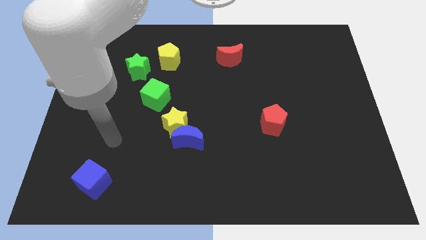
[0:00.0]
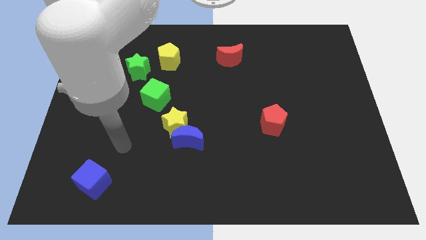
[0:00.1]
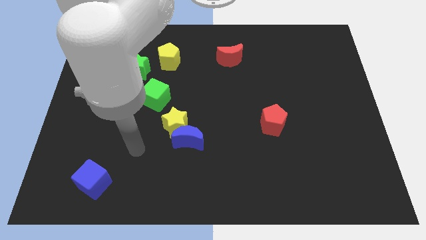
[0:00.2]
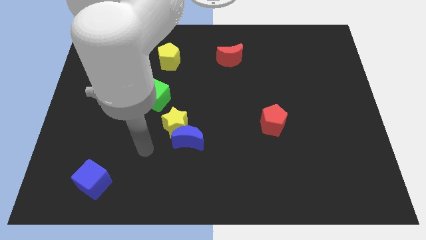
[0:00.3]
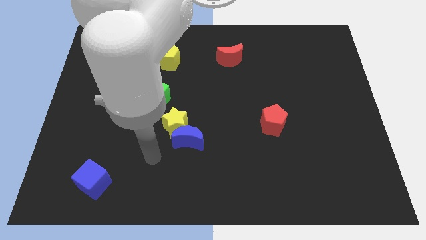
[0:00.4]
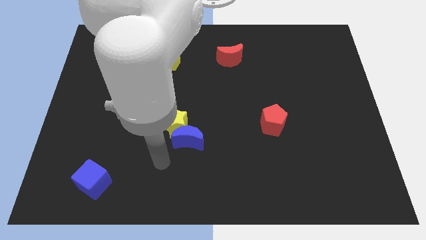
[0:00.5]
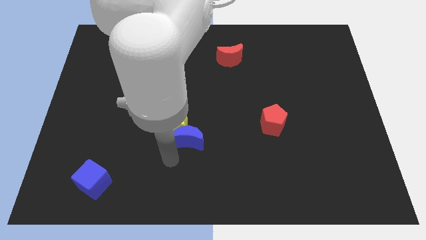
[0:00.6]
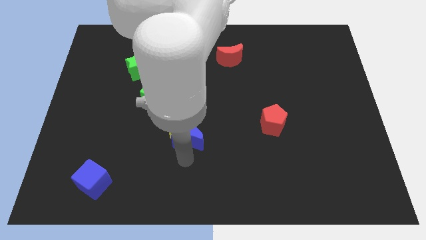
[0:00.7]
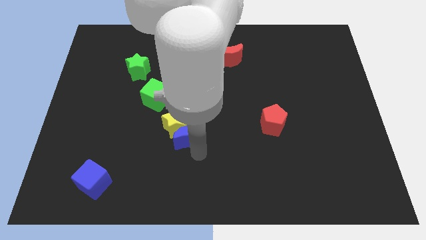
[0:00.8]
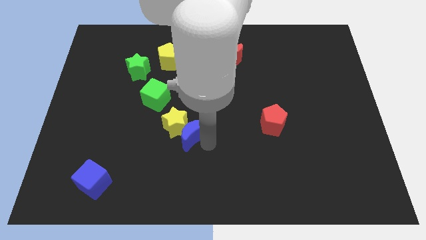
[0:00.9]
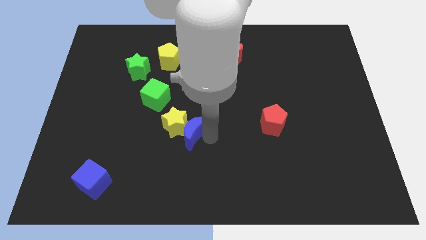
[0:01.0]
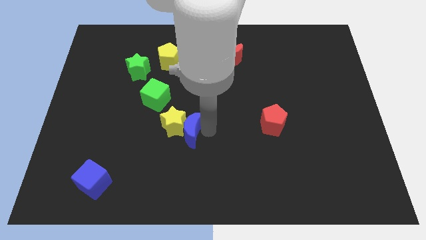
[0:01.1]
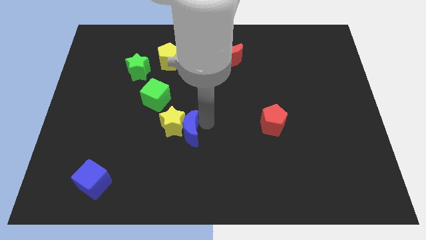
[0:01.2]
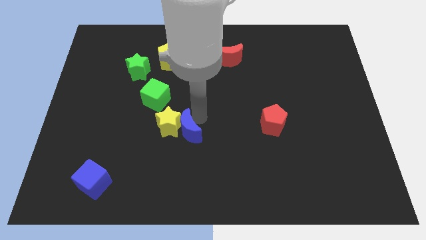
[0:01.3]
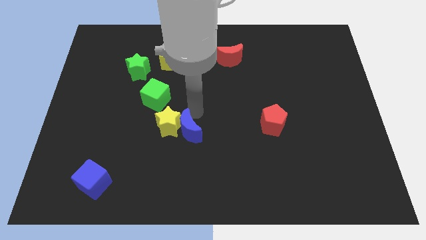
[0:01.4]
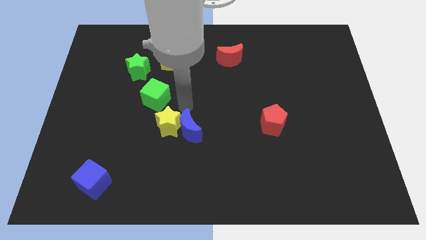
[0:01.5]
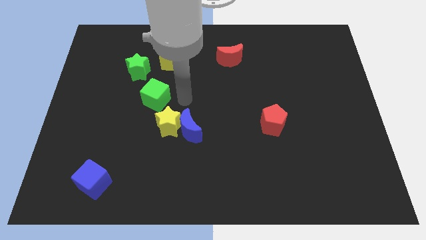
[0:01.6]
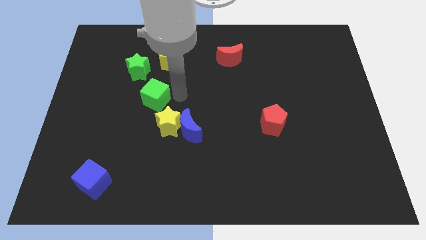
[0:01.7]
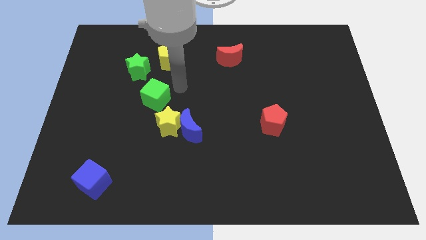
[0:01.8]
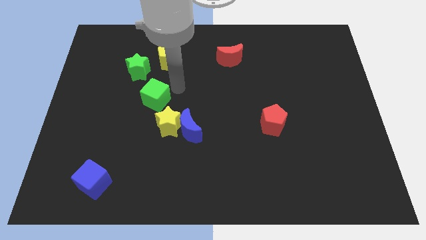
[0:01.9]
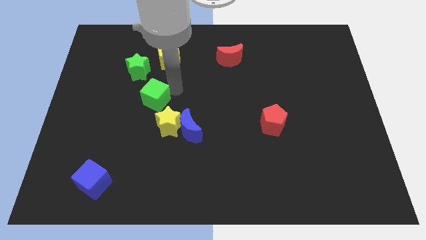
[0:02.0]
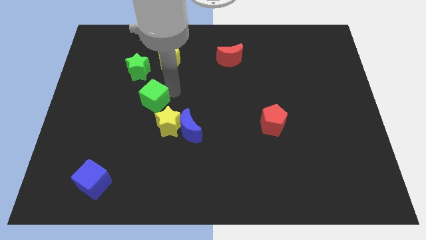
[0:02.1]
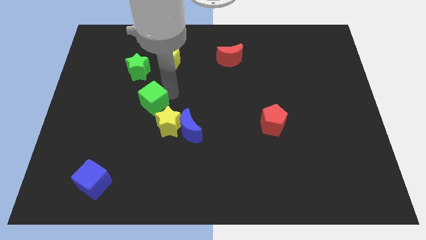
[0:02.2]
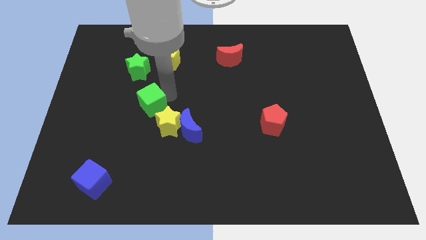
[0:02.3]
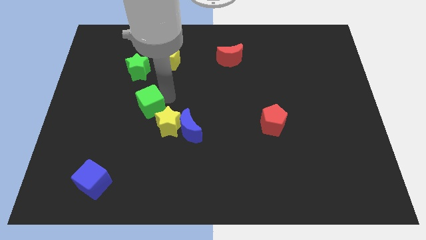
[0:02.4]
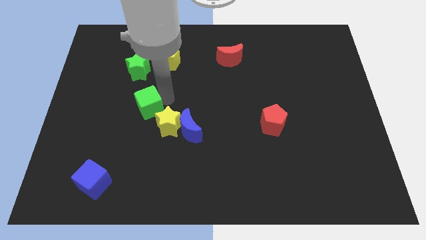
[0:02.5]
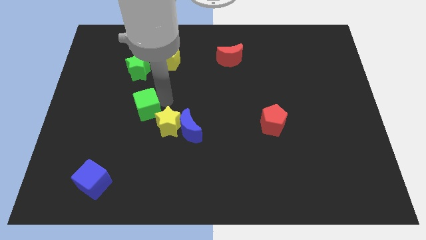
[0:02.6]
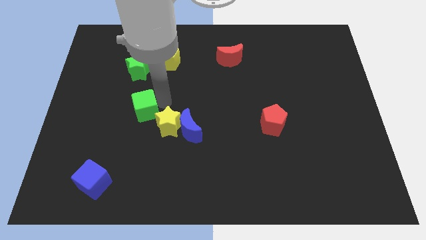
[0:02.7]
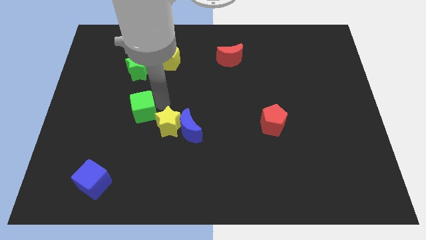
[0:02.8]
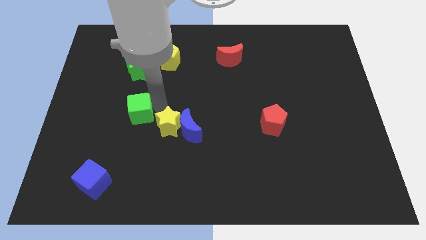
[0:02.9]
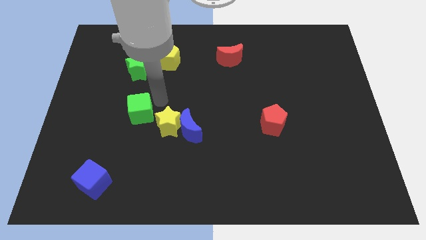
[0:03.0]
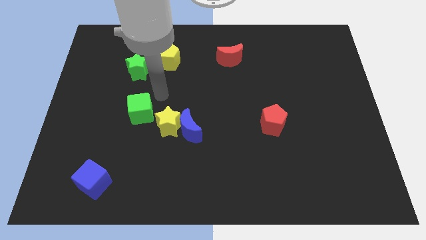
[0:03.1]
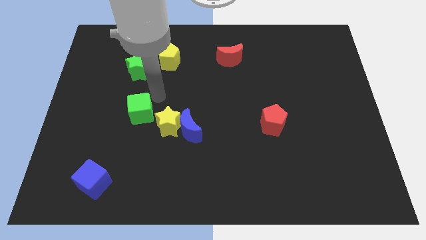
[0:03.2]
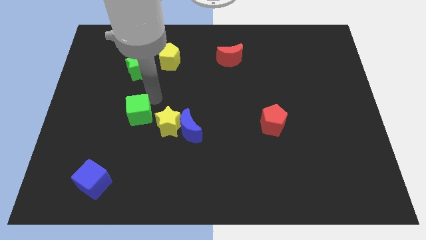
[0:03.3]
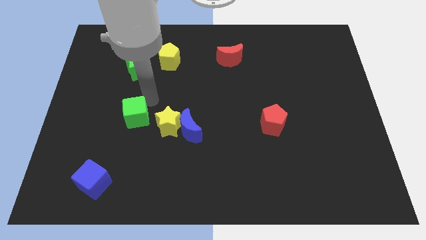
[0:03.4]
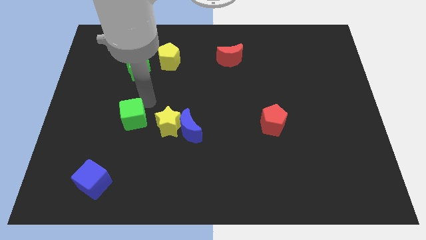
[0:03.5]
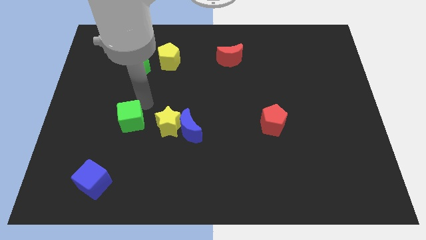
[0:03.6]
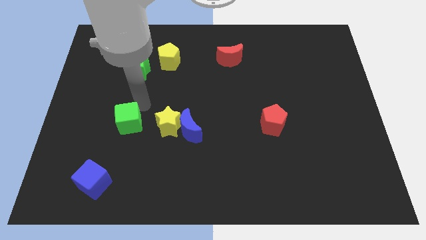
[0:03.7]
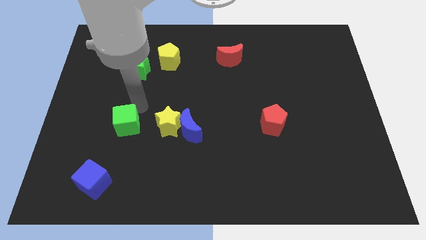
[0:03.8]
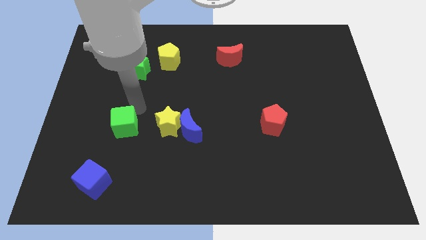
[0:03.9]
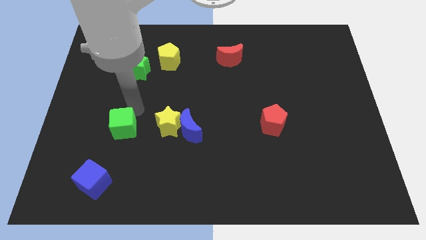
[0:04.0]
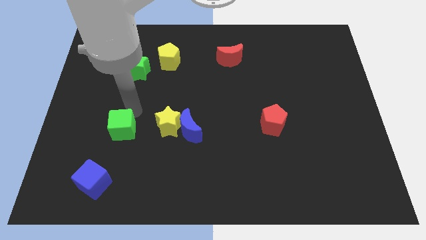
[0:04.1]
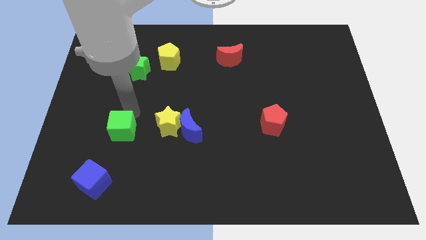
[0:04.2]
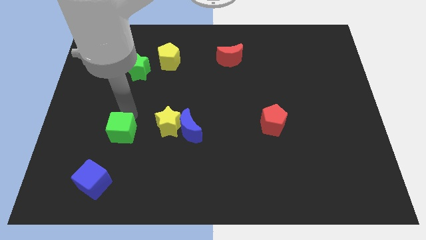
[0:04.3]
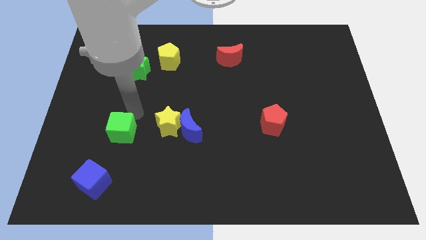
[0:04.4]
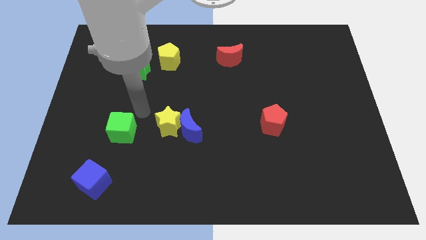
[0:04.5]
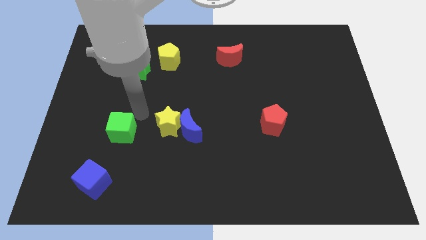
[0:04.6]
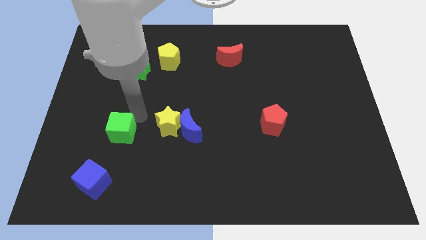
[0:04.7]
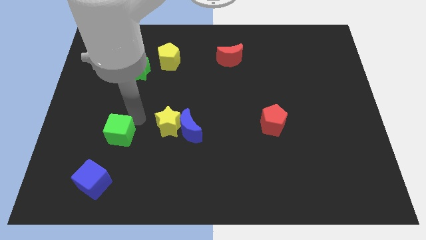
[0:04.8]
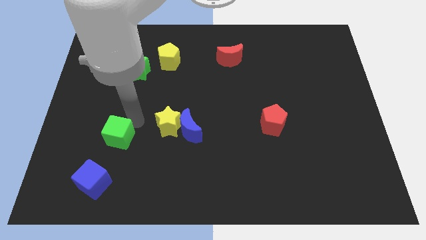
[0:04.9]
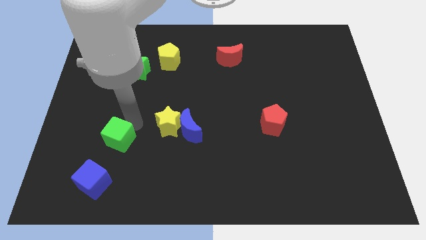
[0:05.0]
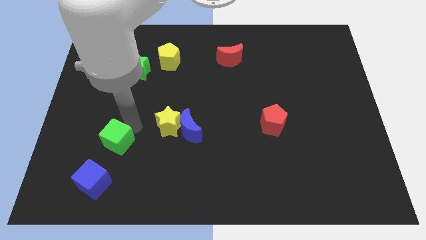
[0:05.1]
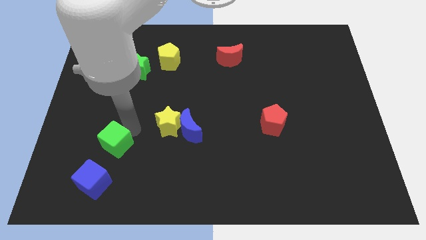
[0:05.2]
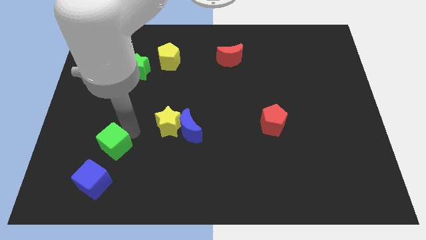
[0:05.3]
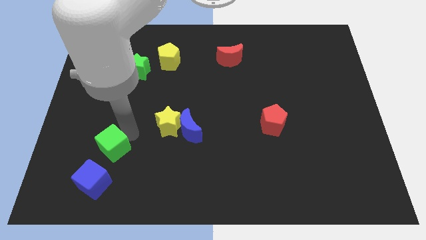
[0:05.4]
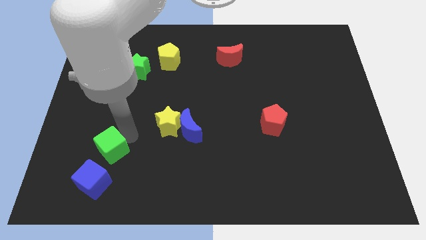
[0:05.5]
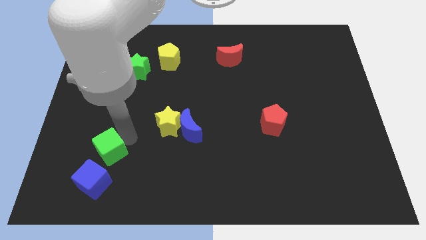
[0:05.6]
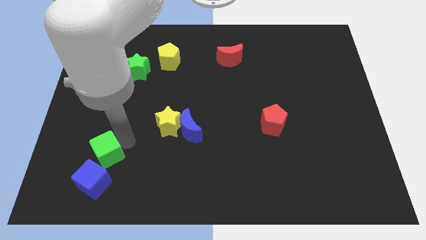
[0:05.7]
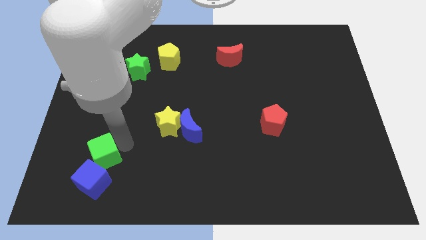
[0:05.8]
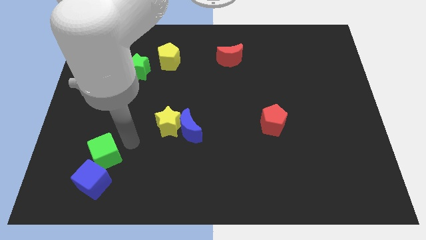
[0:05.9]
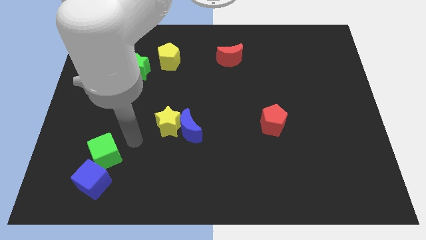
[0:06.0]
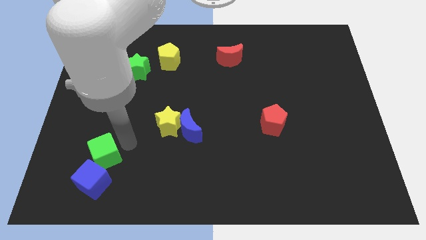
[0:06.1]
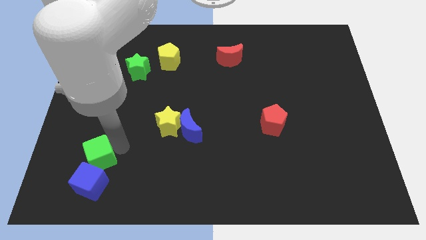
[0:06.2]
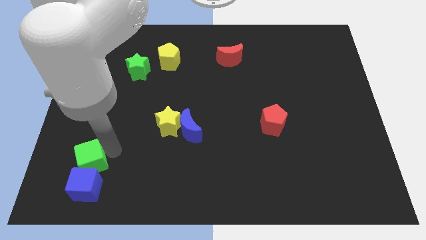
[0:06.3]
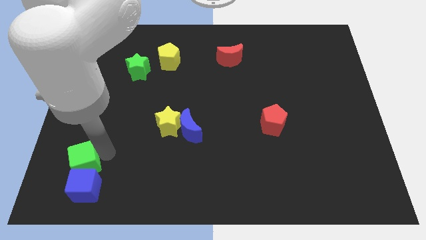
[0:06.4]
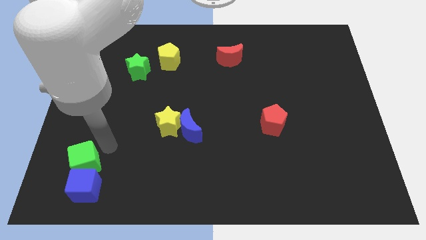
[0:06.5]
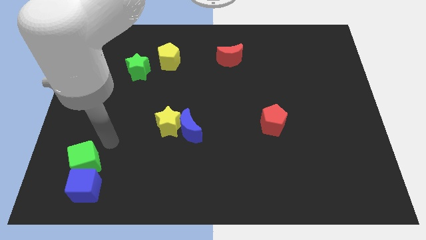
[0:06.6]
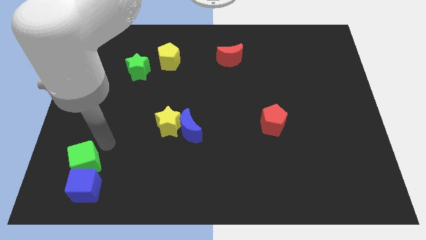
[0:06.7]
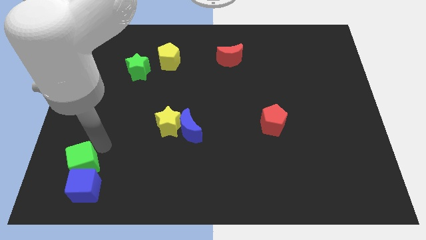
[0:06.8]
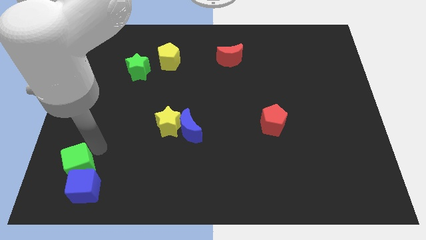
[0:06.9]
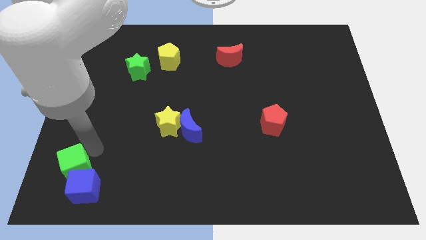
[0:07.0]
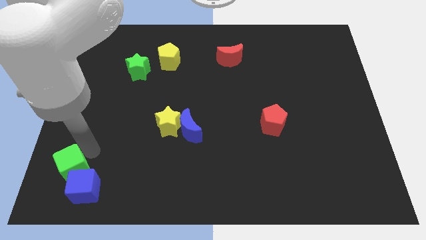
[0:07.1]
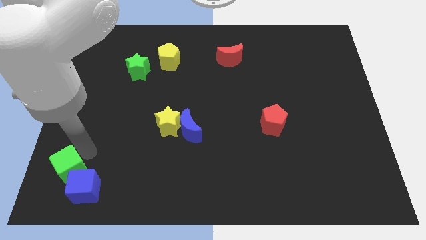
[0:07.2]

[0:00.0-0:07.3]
move the green cube to the lower left corner
